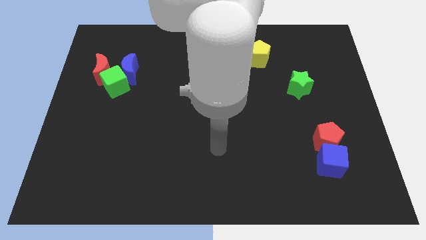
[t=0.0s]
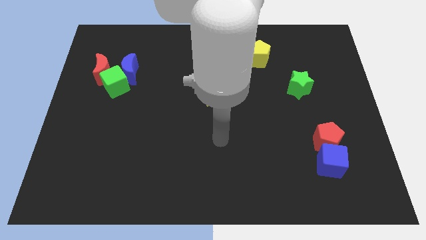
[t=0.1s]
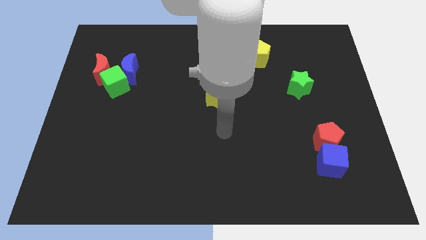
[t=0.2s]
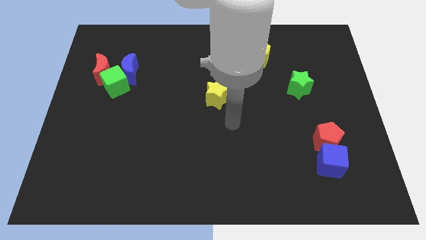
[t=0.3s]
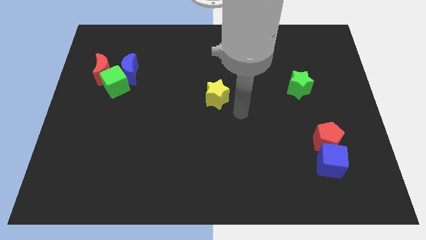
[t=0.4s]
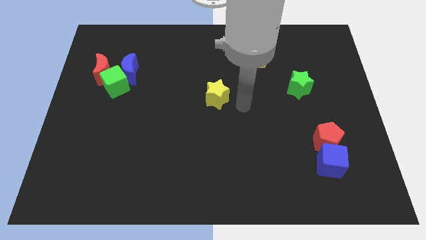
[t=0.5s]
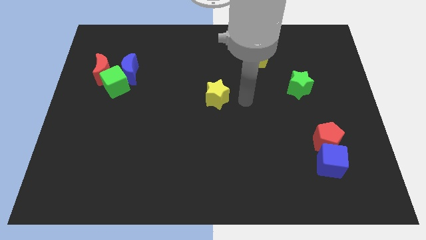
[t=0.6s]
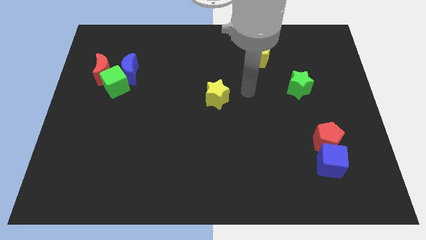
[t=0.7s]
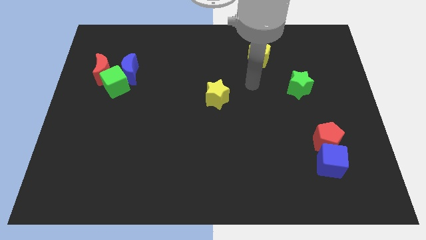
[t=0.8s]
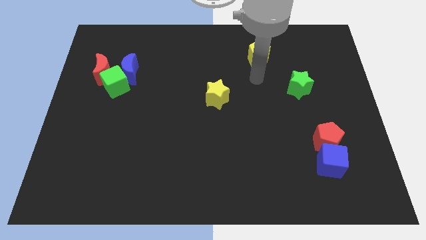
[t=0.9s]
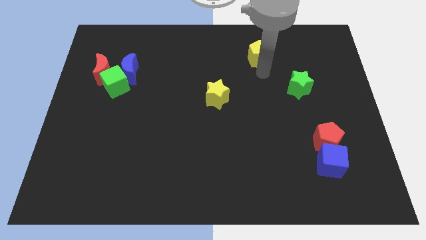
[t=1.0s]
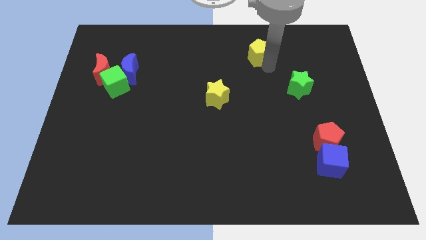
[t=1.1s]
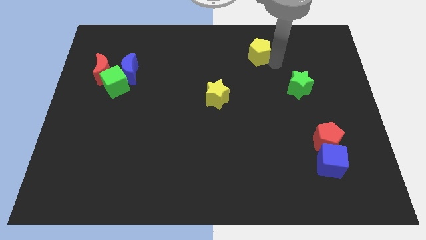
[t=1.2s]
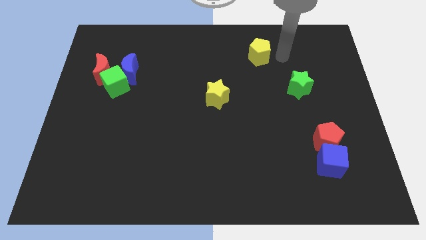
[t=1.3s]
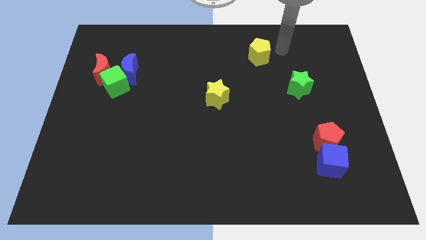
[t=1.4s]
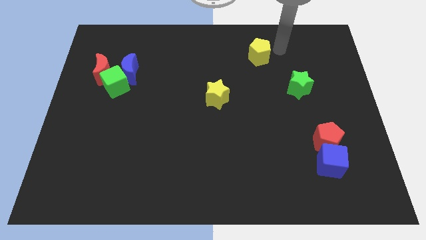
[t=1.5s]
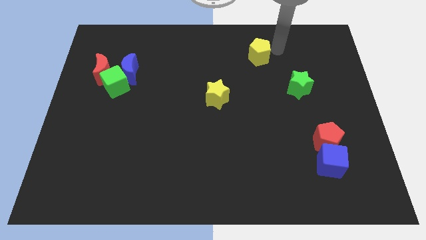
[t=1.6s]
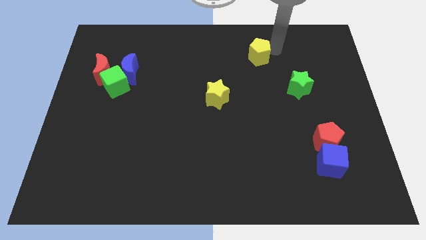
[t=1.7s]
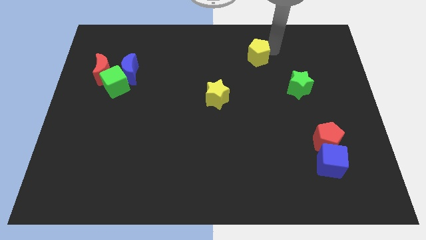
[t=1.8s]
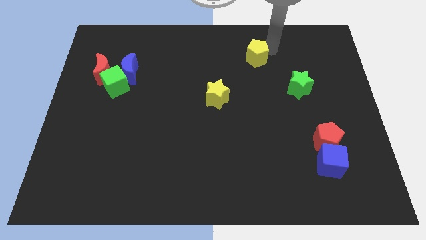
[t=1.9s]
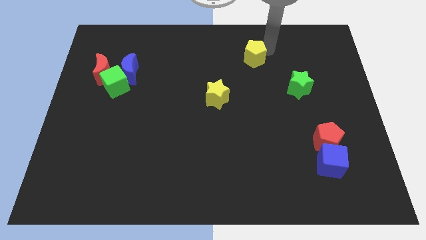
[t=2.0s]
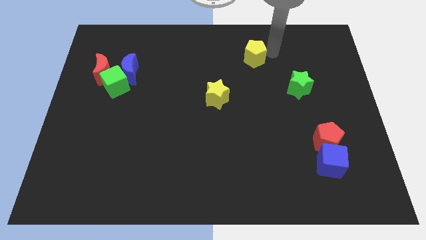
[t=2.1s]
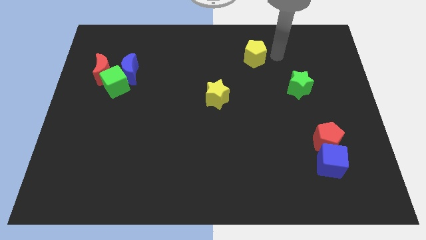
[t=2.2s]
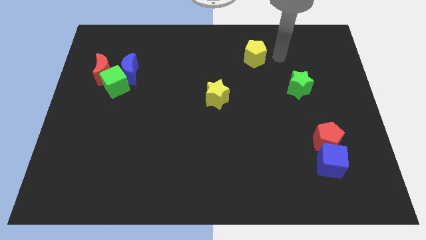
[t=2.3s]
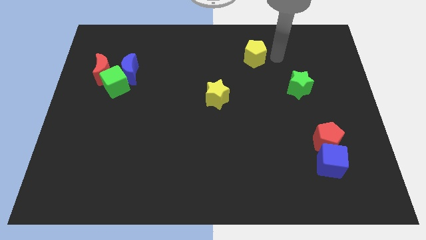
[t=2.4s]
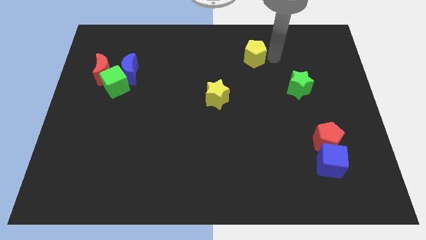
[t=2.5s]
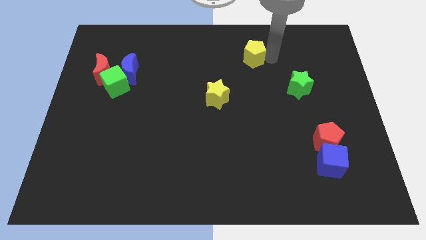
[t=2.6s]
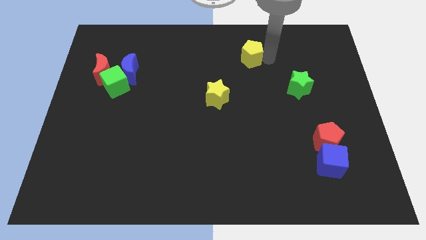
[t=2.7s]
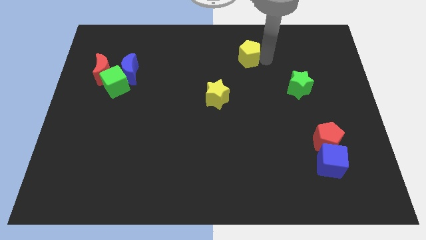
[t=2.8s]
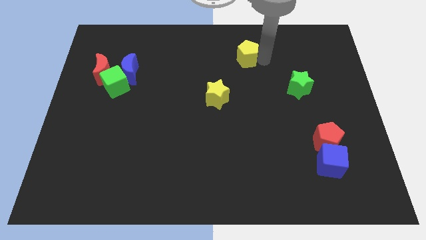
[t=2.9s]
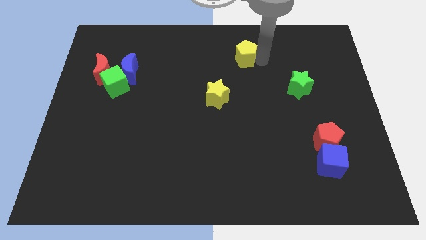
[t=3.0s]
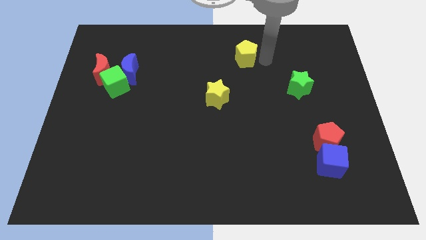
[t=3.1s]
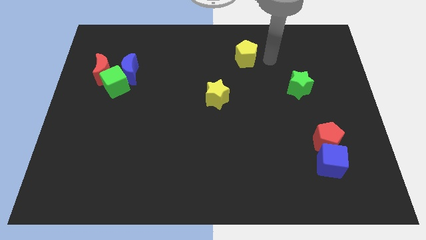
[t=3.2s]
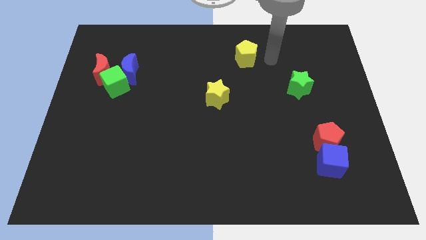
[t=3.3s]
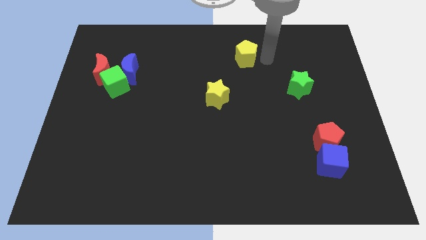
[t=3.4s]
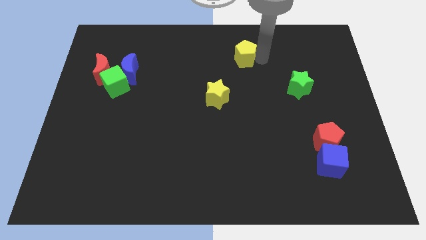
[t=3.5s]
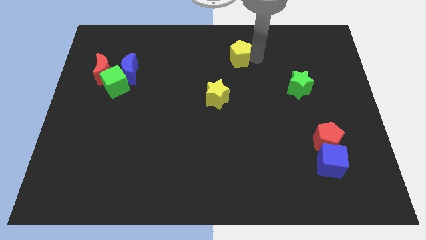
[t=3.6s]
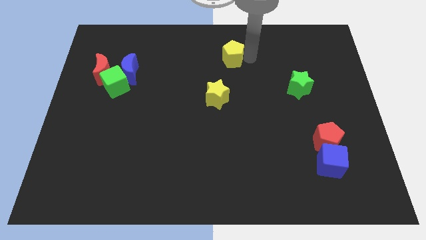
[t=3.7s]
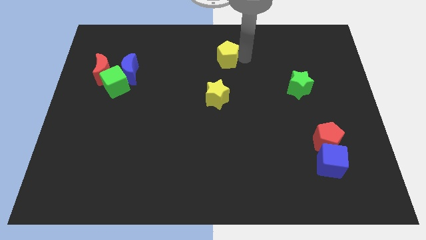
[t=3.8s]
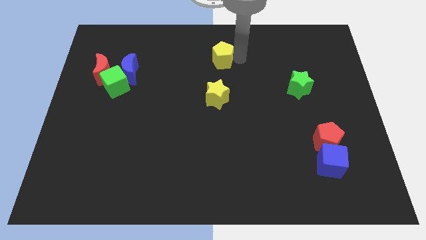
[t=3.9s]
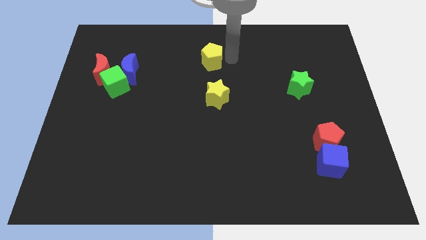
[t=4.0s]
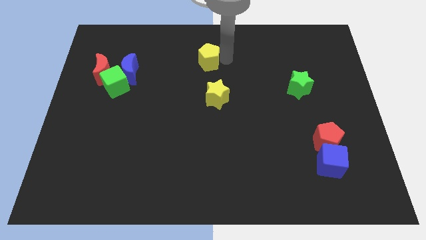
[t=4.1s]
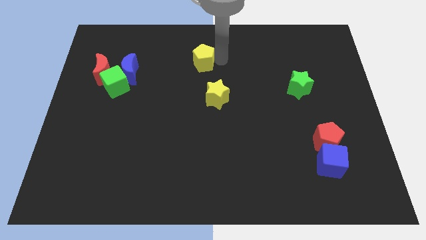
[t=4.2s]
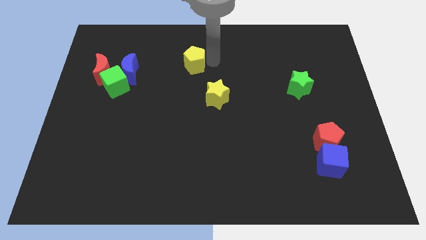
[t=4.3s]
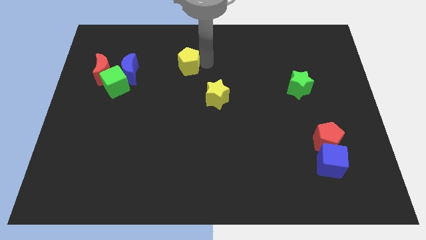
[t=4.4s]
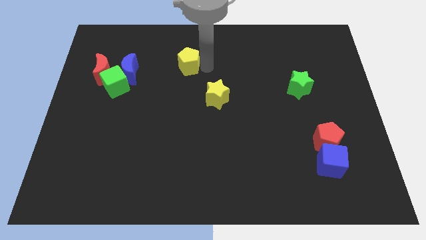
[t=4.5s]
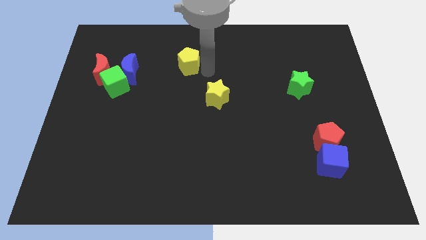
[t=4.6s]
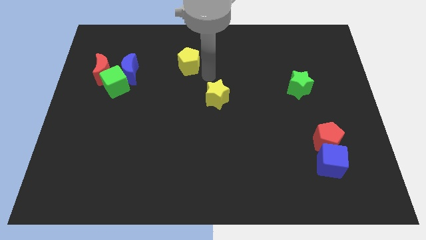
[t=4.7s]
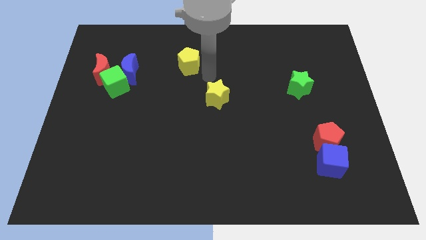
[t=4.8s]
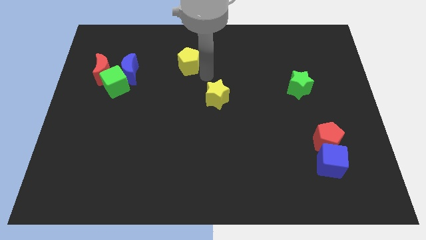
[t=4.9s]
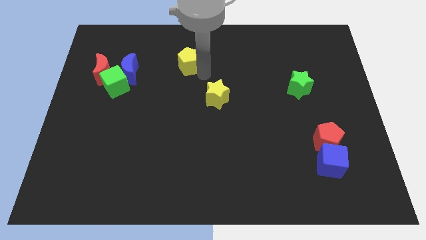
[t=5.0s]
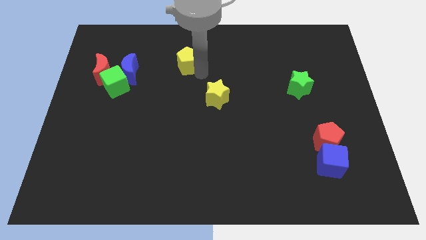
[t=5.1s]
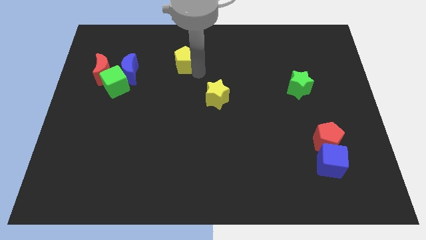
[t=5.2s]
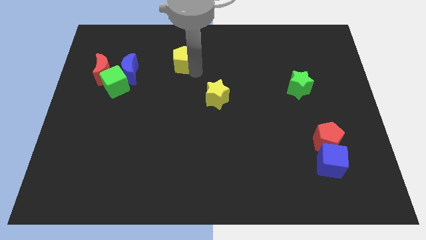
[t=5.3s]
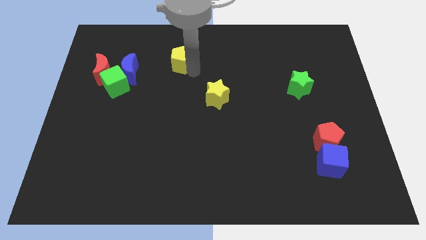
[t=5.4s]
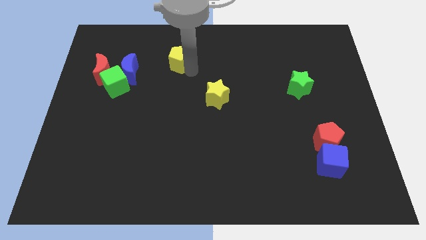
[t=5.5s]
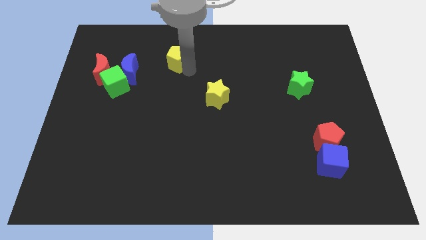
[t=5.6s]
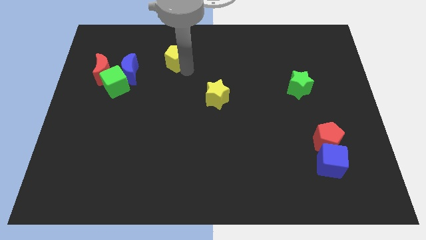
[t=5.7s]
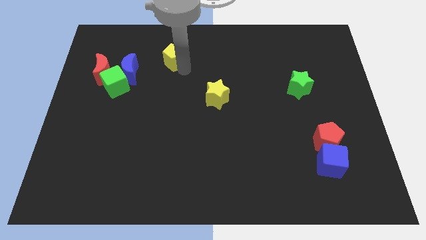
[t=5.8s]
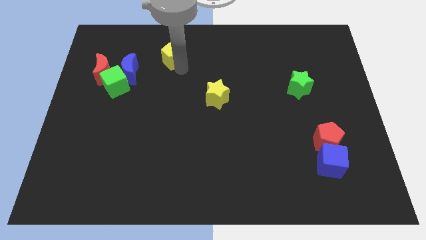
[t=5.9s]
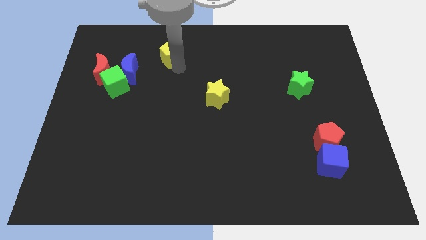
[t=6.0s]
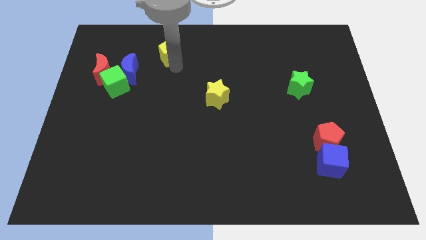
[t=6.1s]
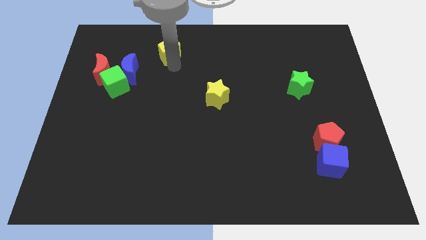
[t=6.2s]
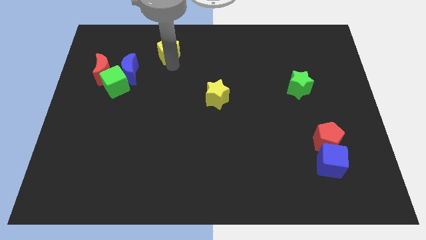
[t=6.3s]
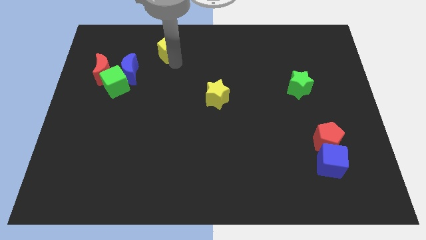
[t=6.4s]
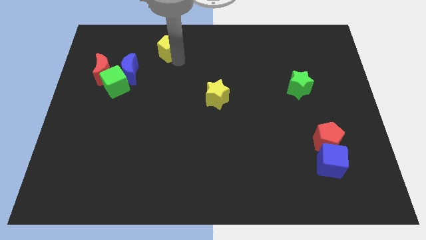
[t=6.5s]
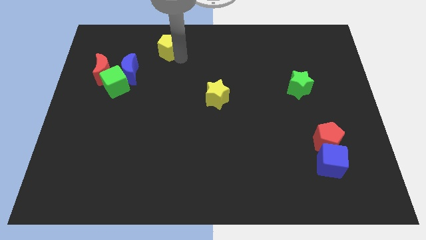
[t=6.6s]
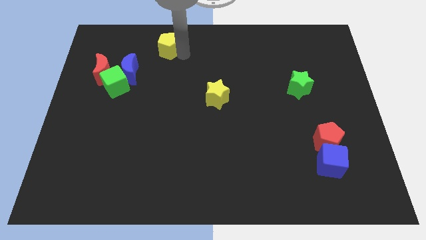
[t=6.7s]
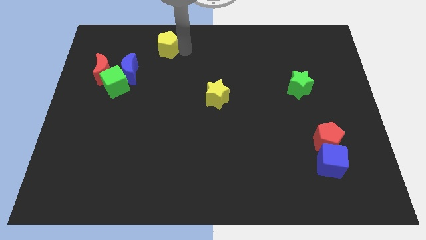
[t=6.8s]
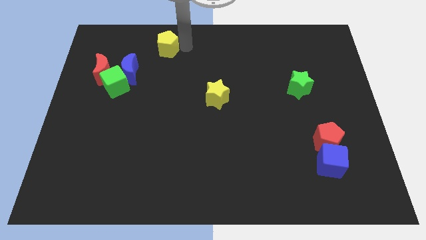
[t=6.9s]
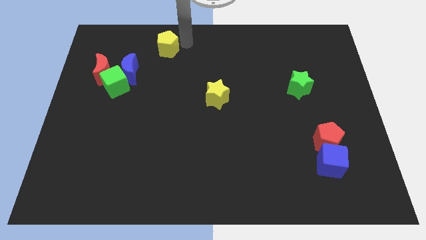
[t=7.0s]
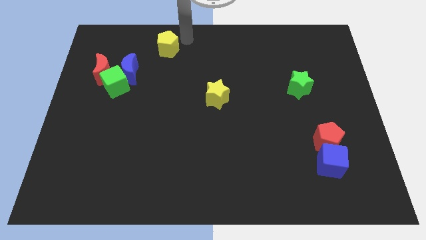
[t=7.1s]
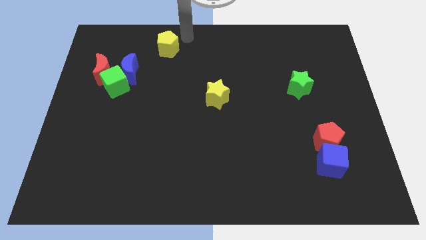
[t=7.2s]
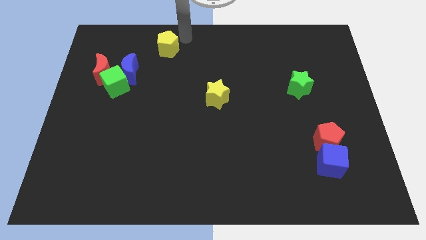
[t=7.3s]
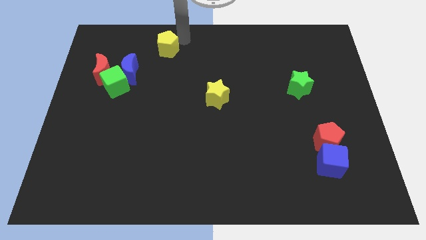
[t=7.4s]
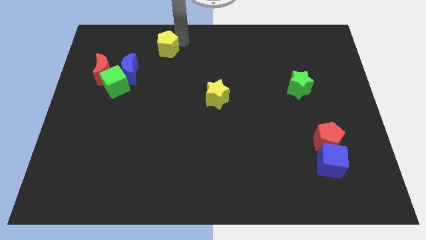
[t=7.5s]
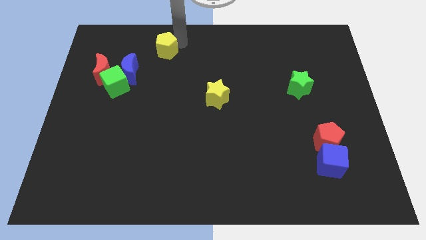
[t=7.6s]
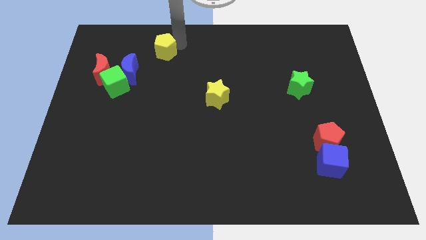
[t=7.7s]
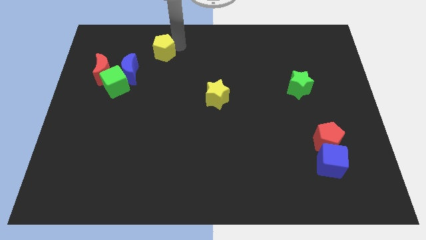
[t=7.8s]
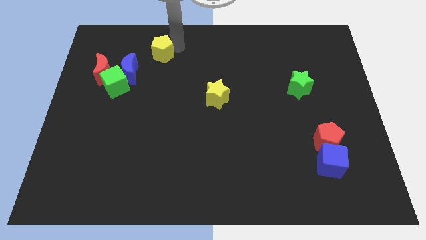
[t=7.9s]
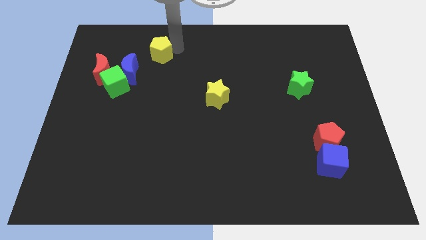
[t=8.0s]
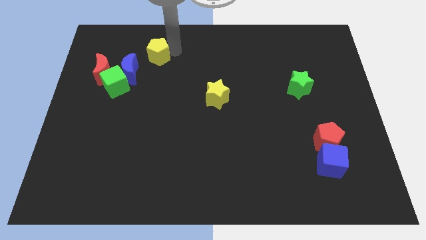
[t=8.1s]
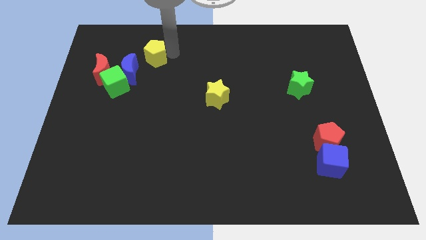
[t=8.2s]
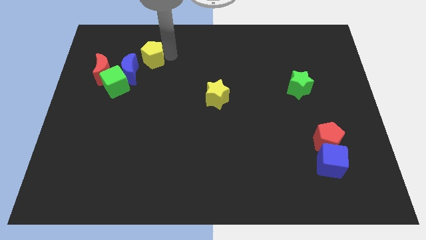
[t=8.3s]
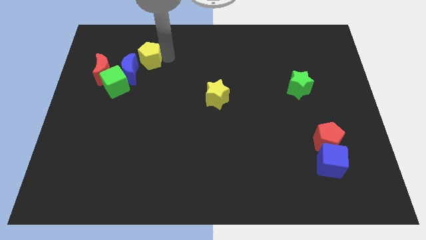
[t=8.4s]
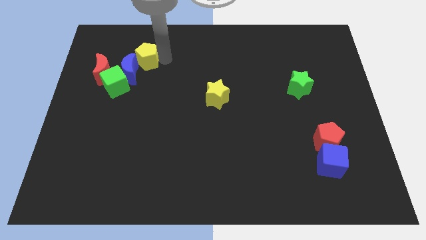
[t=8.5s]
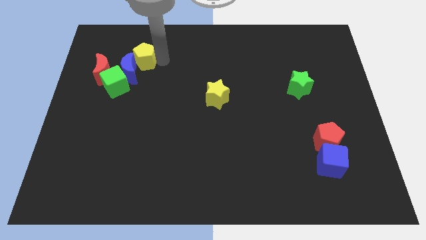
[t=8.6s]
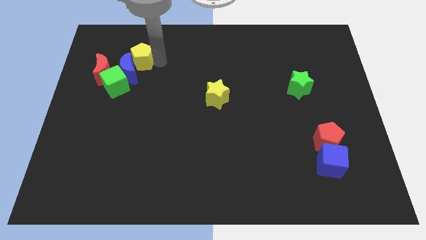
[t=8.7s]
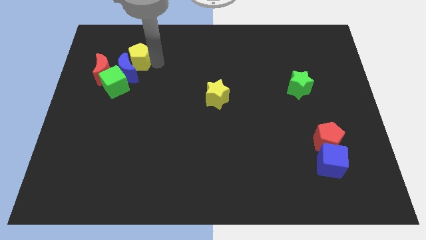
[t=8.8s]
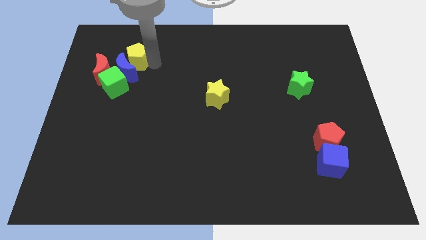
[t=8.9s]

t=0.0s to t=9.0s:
push the yellow pentagon to the top side of the green cube
